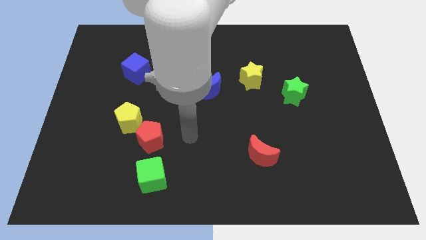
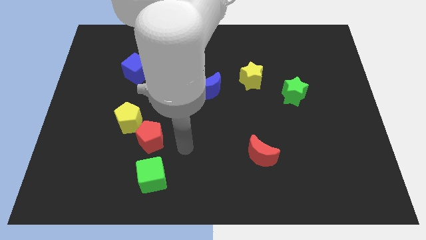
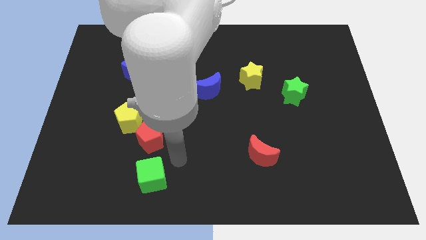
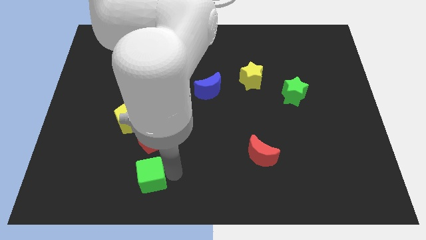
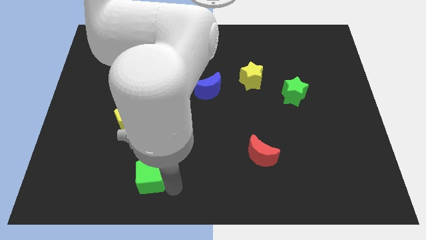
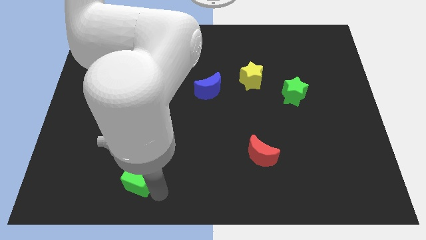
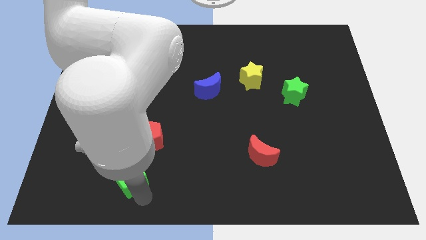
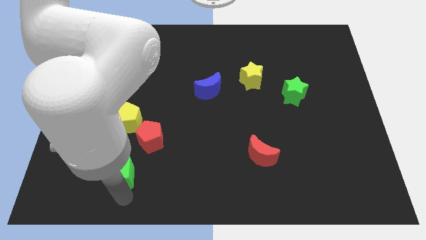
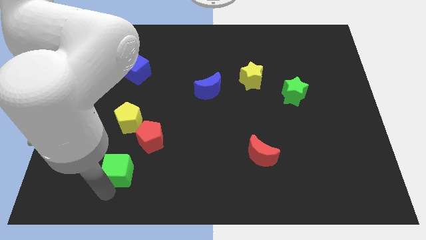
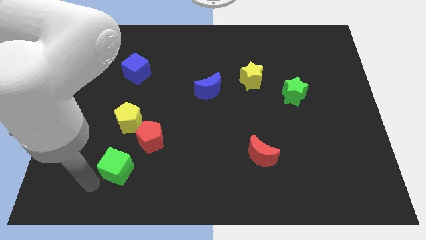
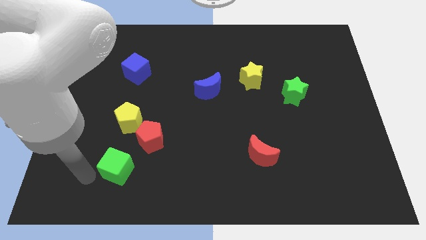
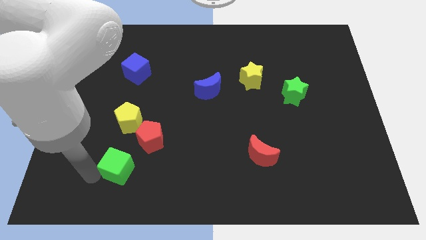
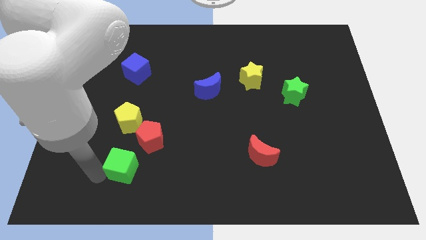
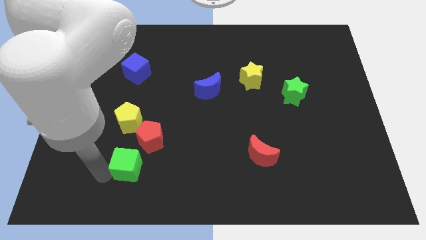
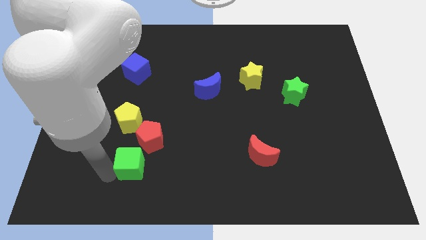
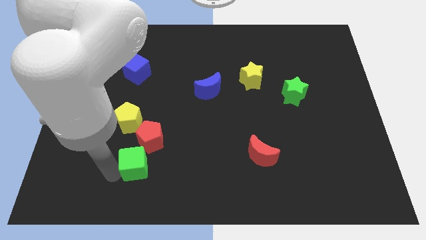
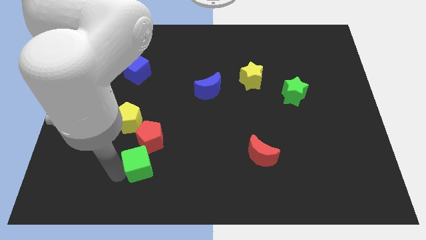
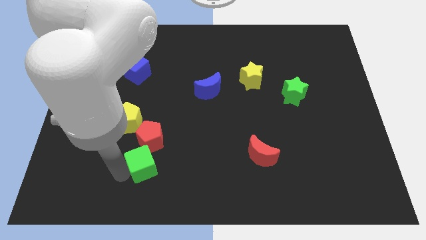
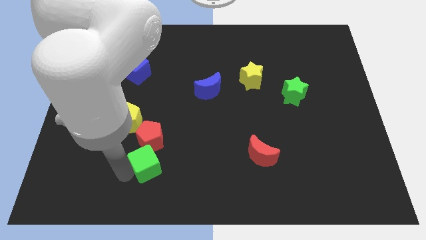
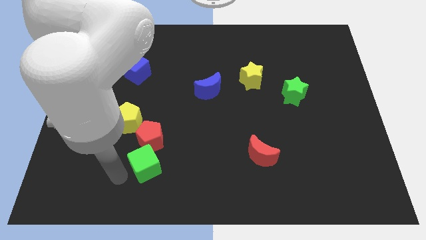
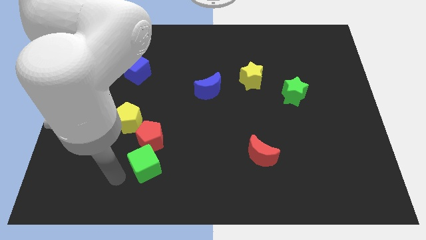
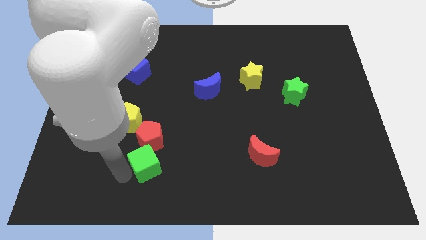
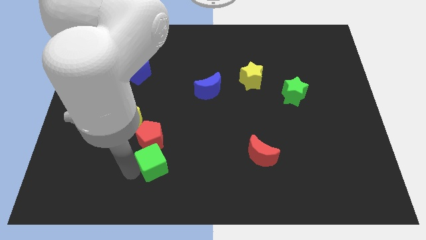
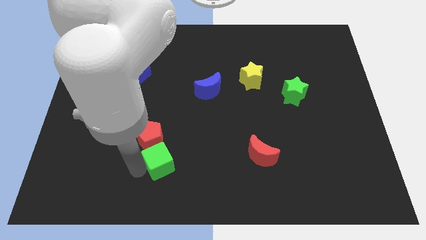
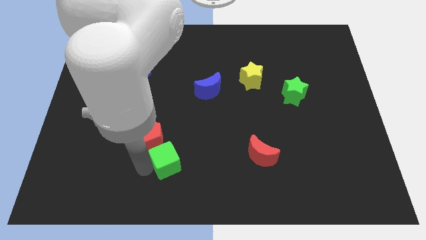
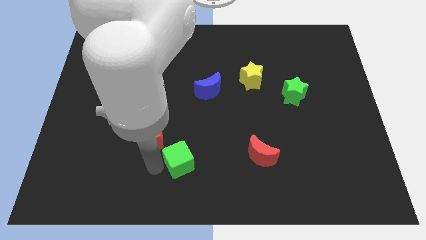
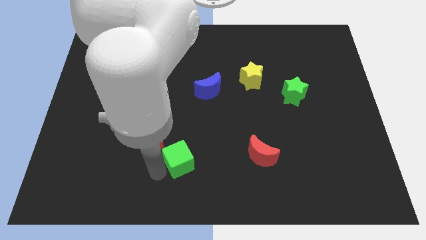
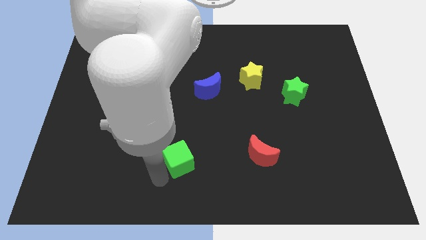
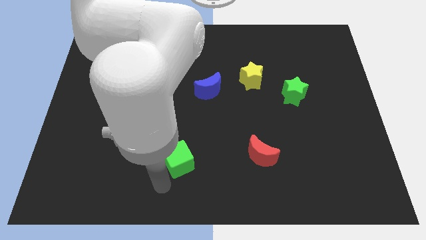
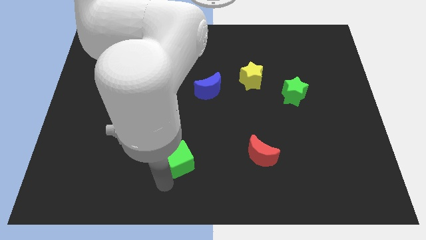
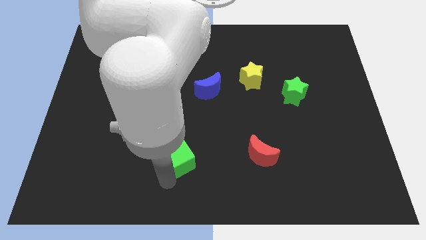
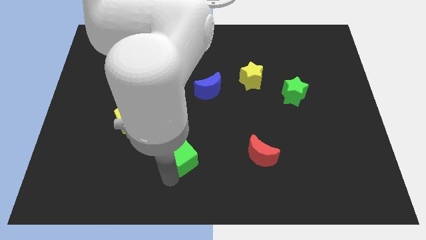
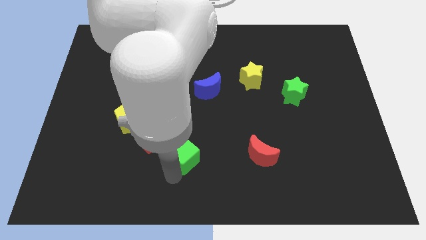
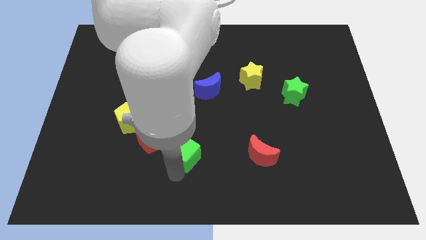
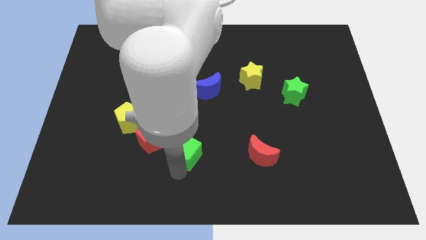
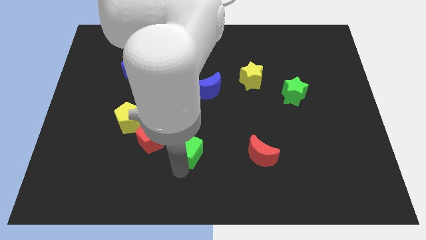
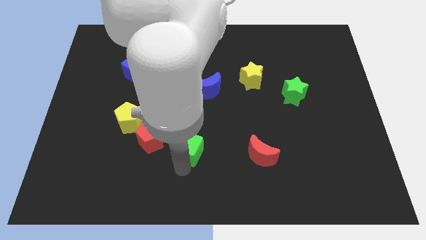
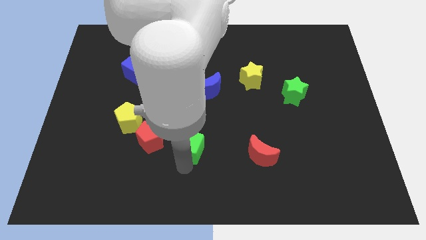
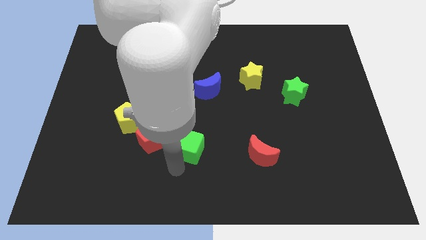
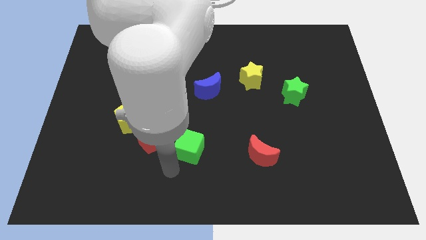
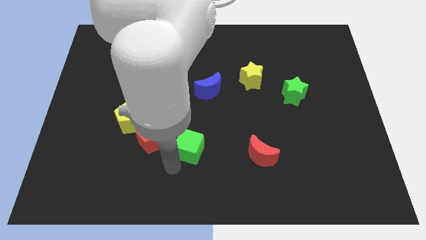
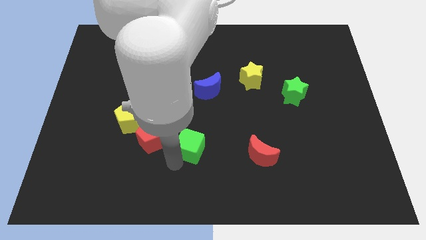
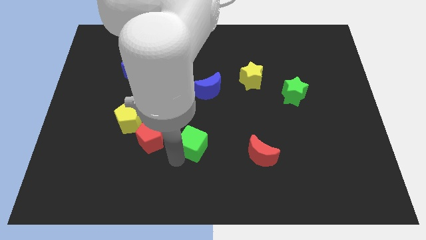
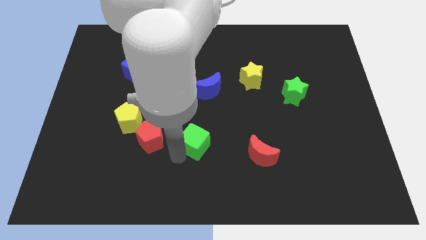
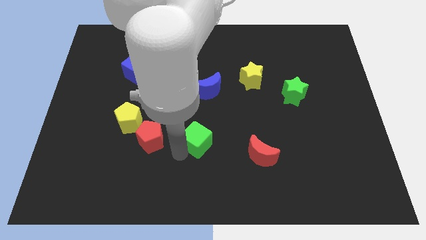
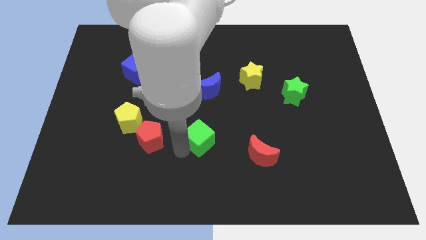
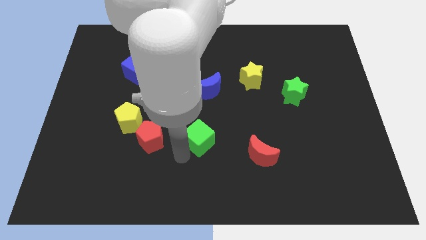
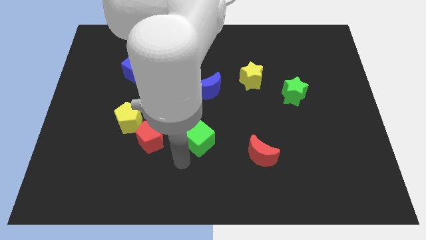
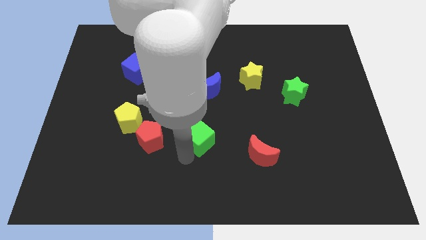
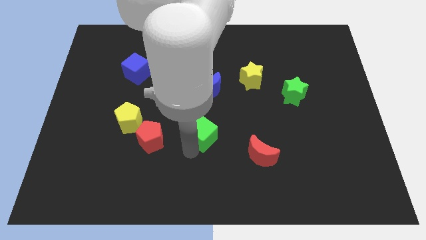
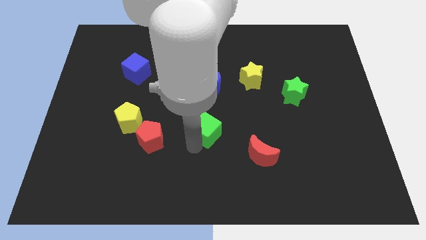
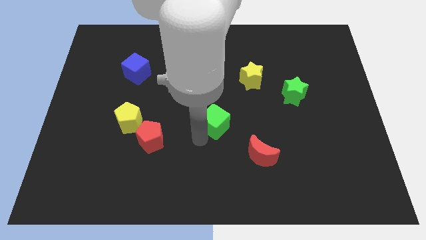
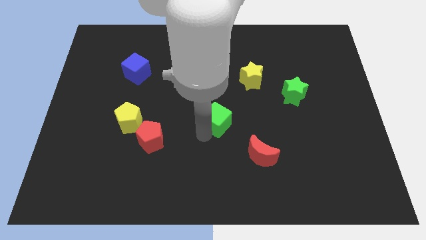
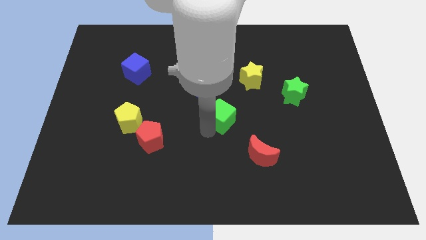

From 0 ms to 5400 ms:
slide the green cube diagonally up and to the right

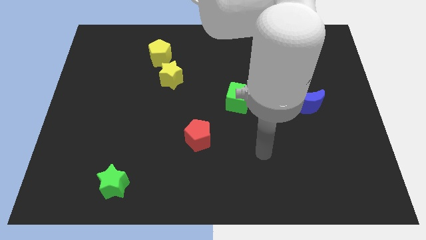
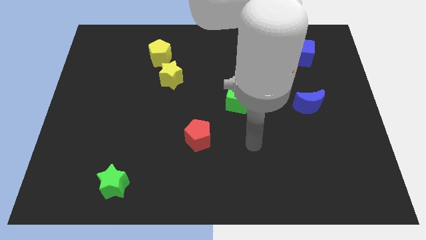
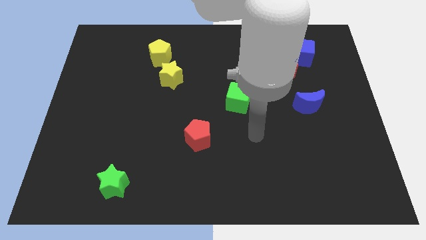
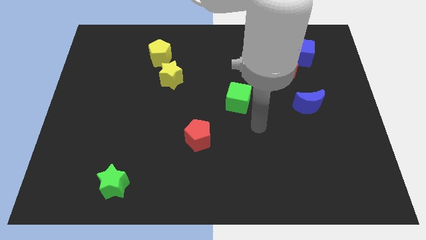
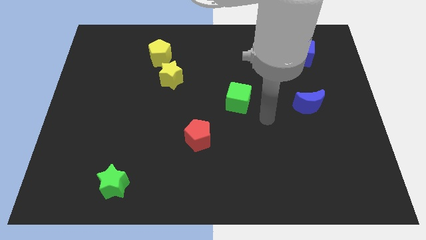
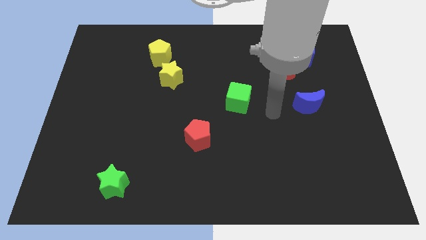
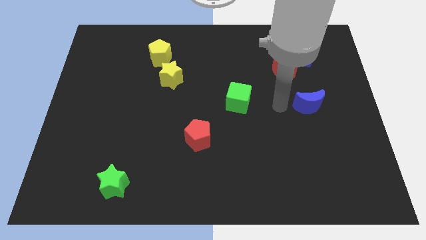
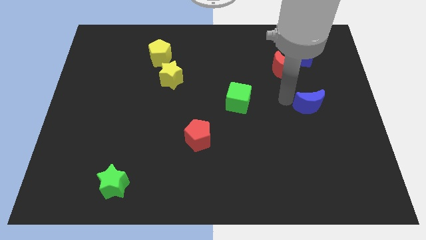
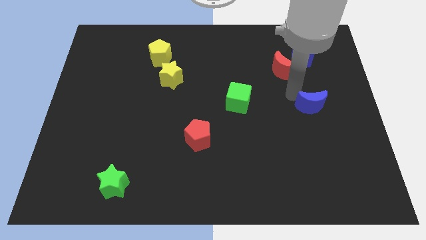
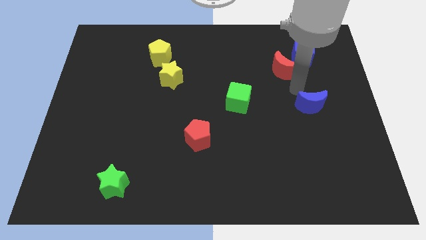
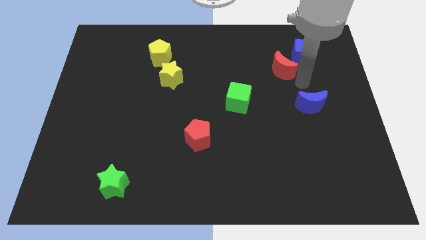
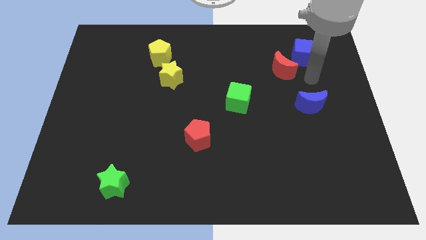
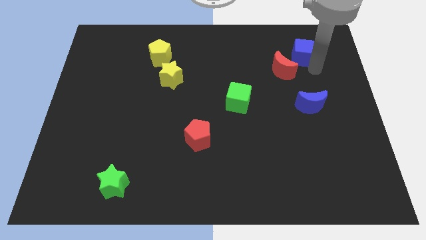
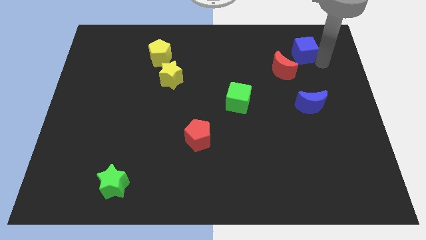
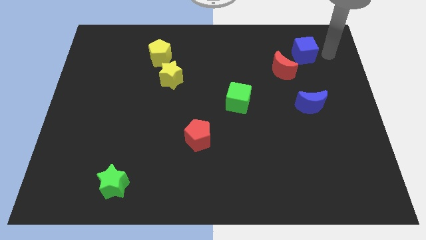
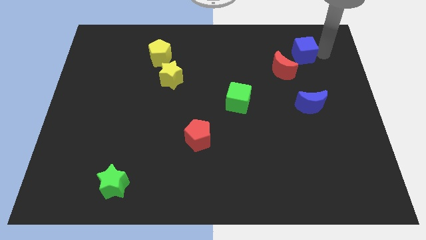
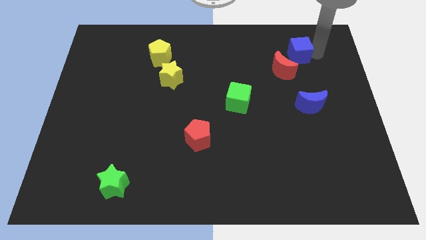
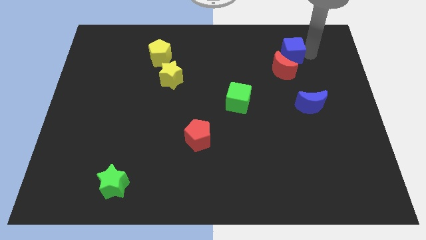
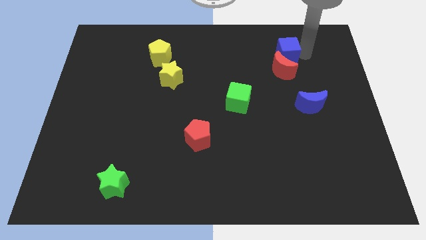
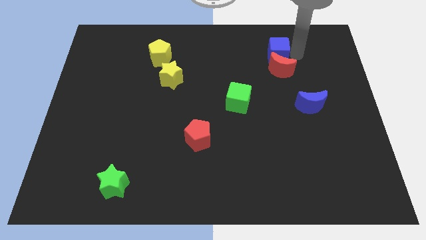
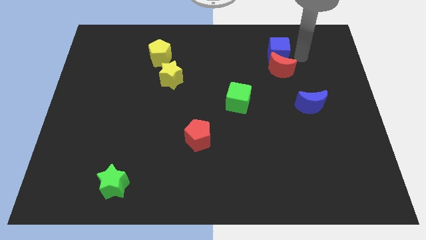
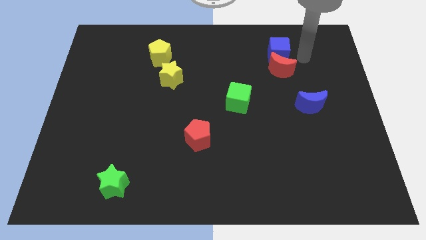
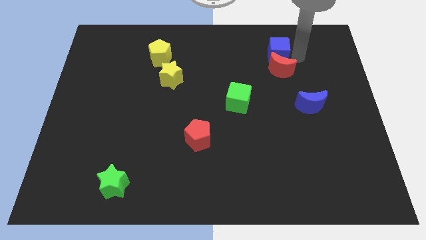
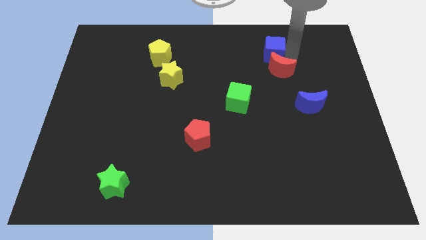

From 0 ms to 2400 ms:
slightly move the blue cube to the left

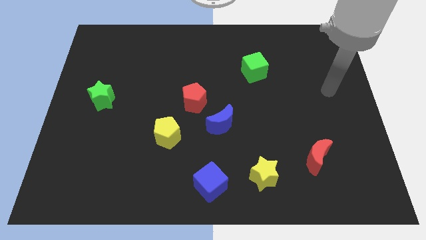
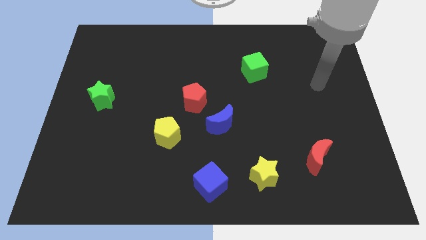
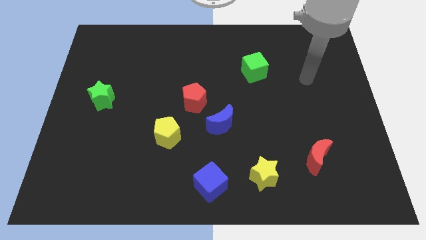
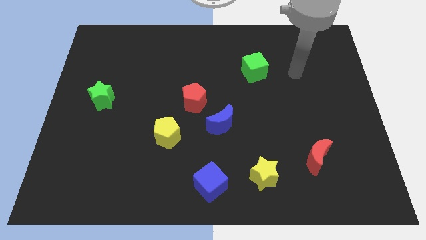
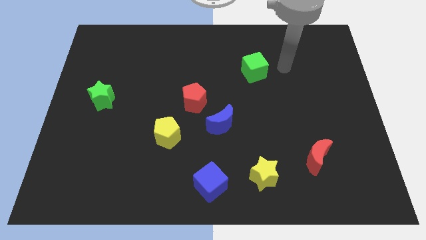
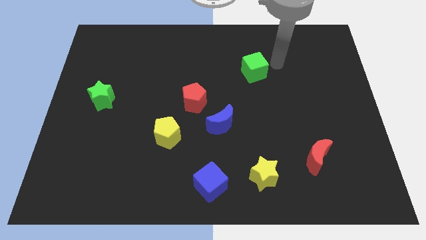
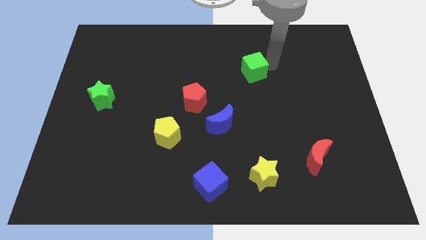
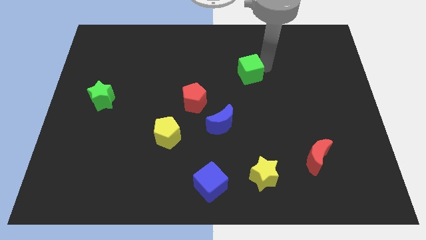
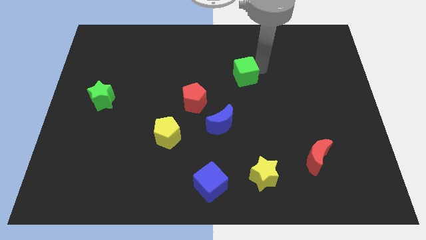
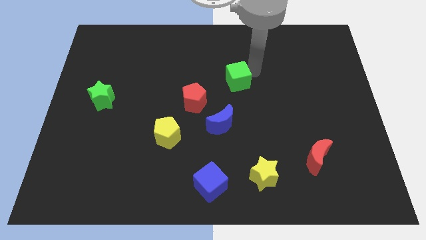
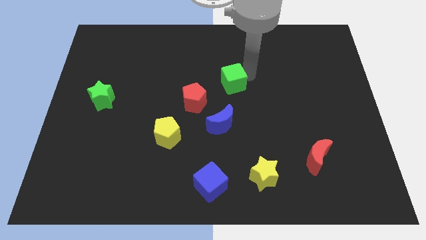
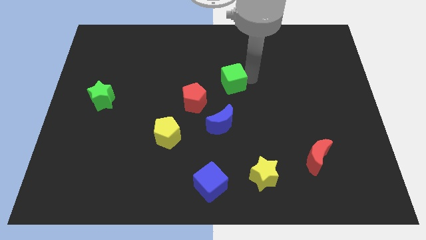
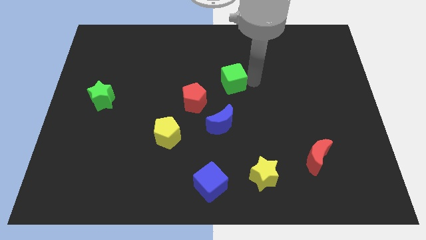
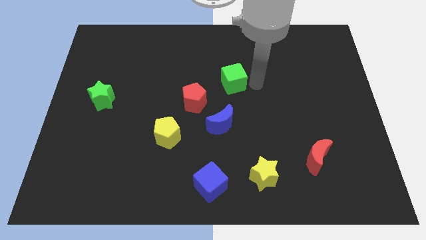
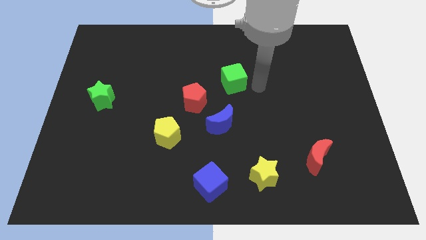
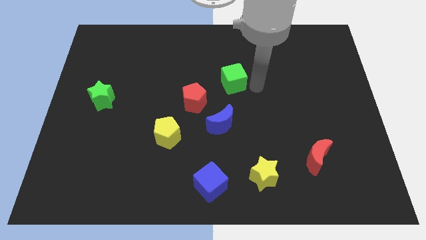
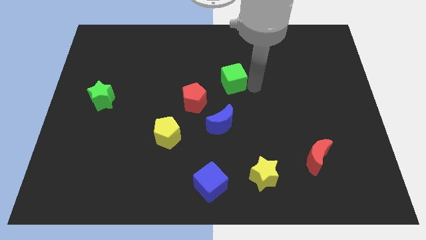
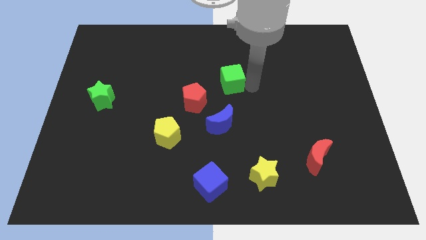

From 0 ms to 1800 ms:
push the green cube diagonally downwards and left a bit
